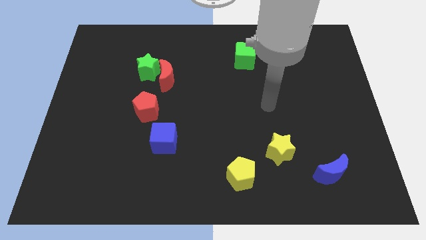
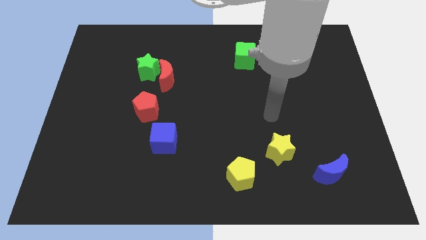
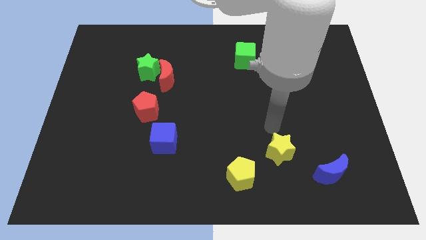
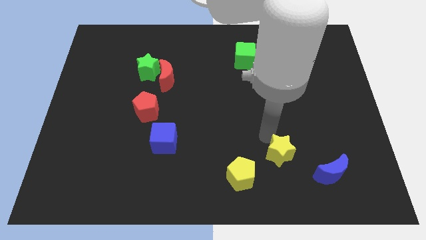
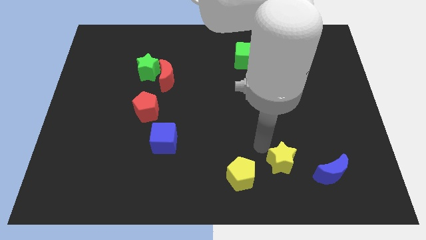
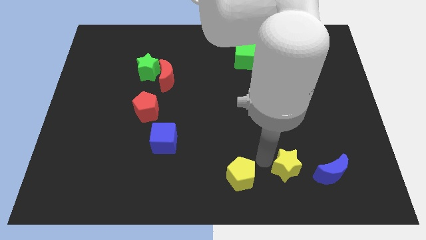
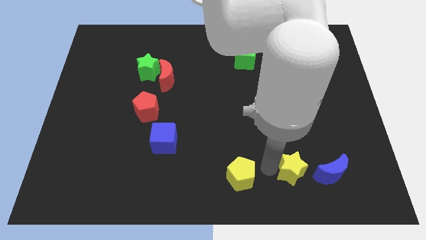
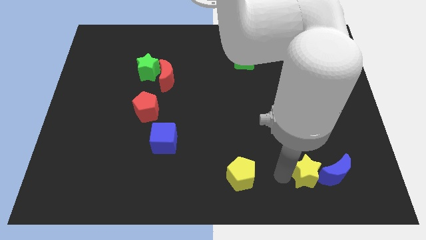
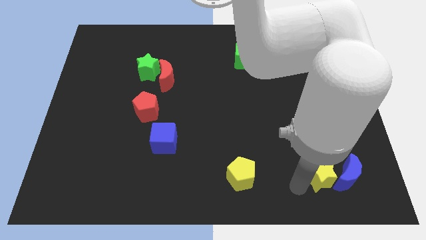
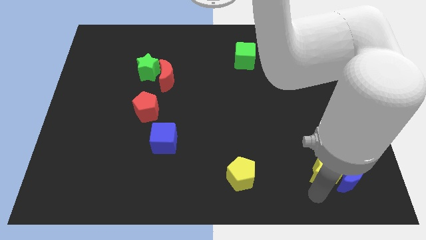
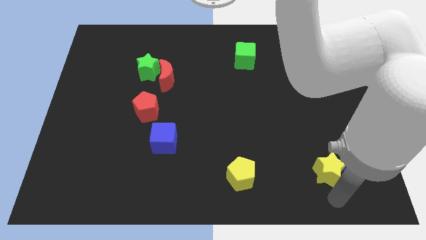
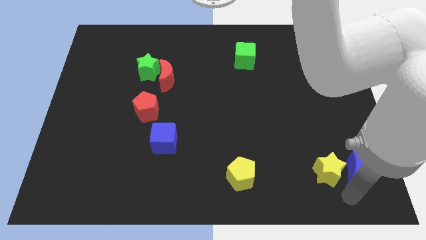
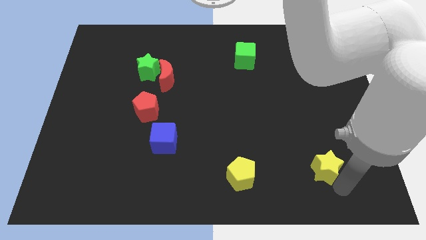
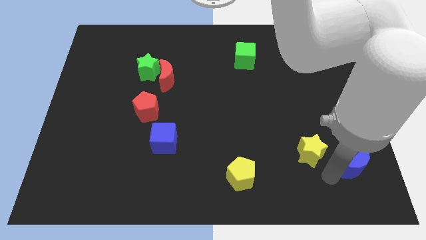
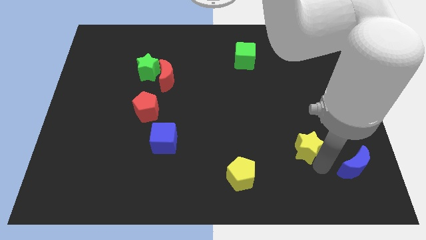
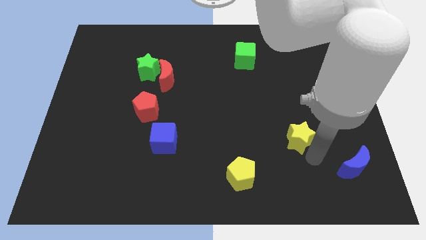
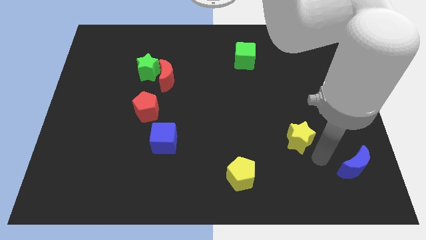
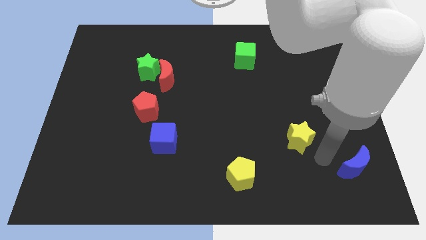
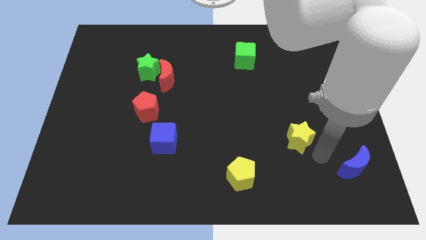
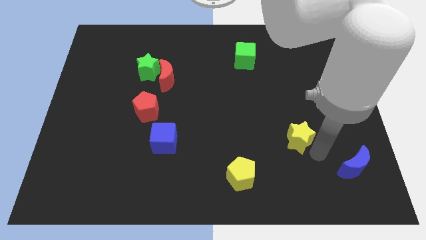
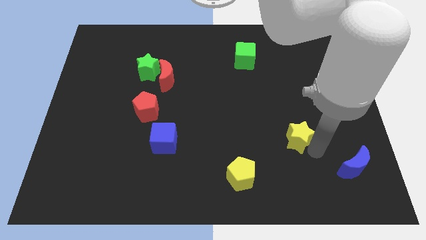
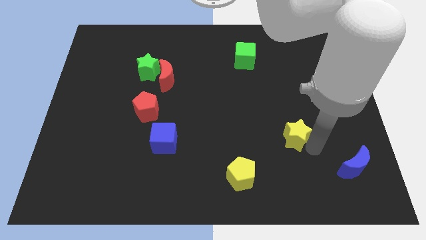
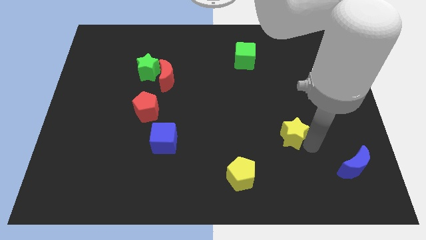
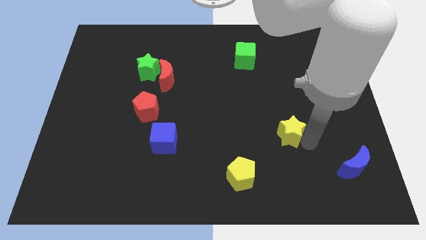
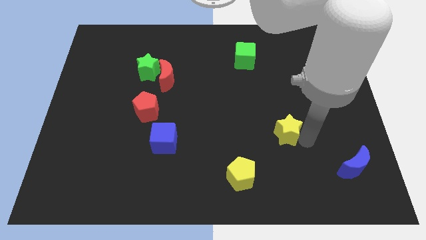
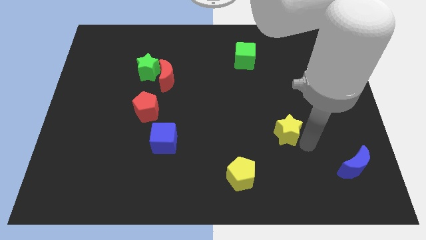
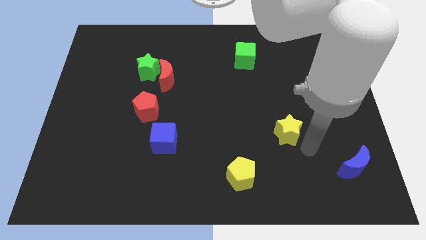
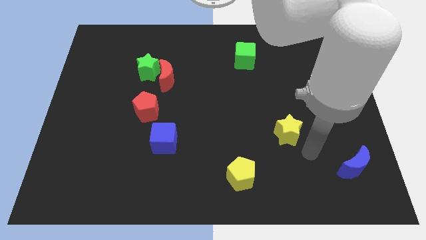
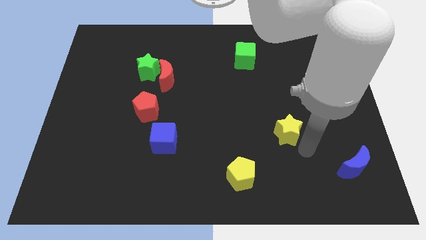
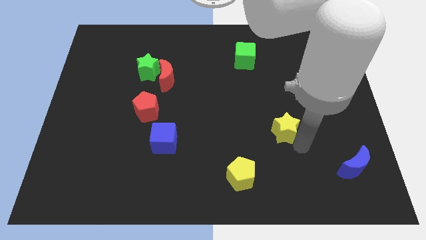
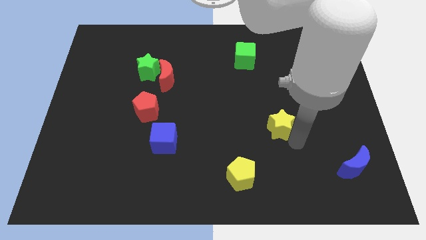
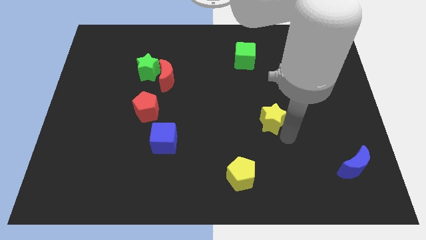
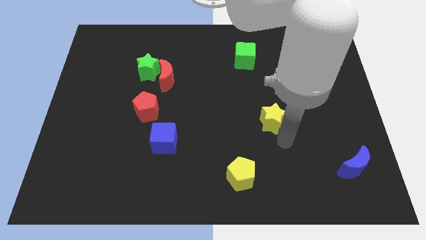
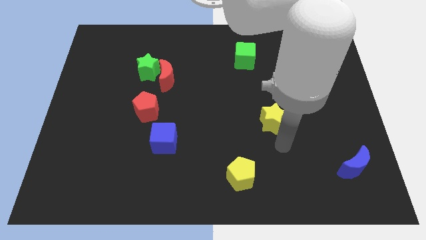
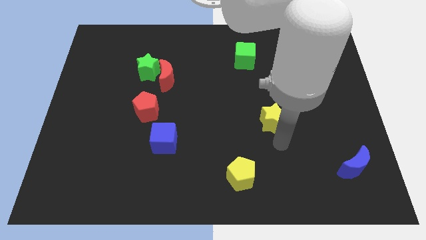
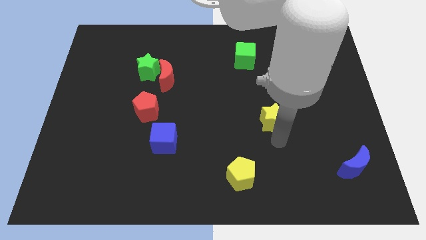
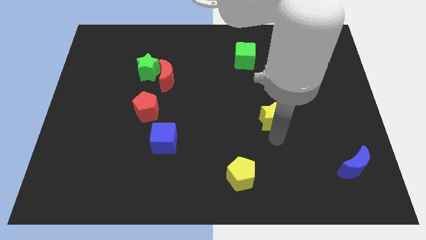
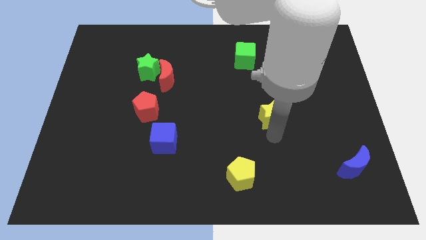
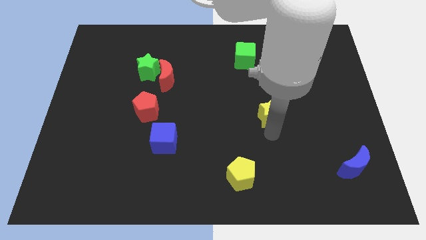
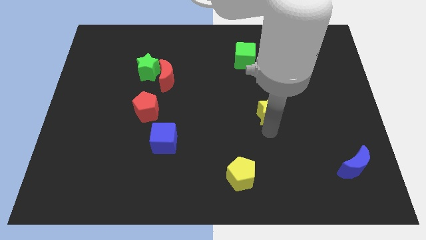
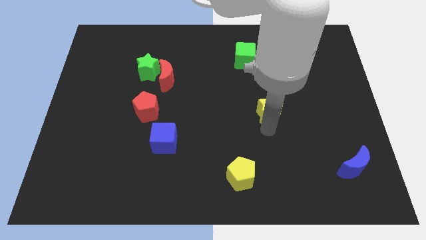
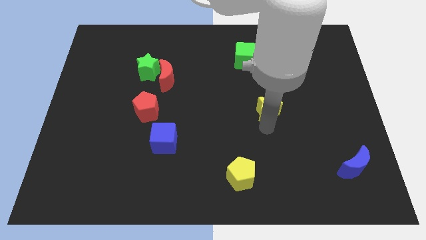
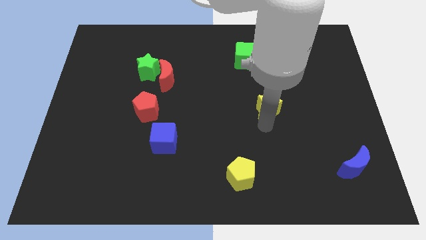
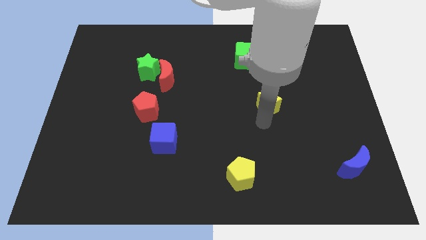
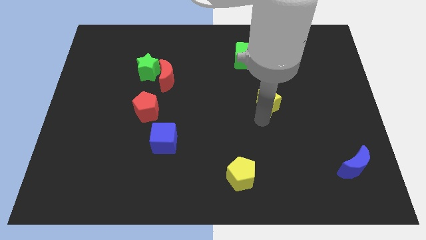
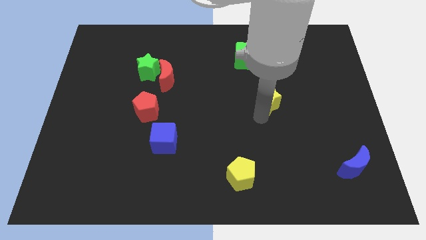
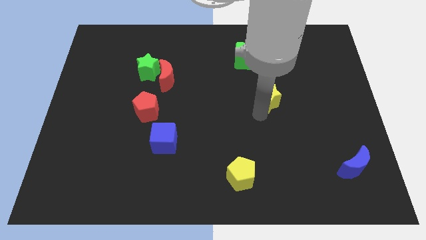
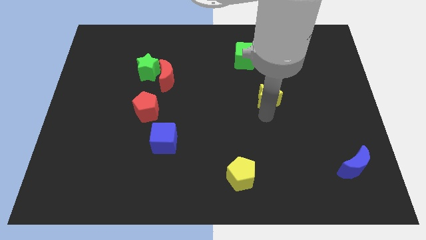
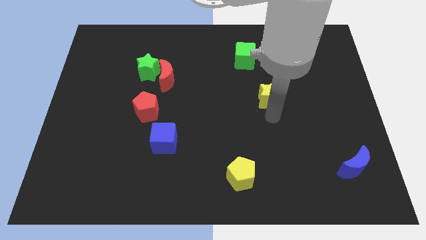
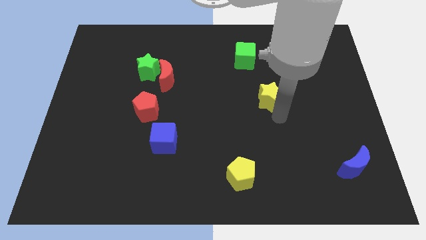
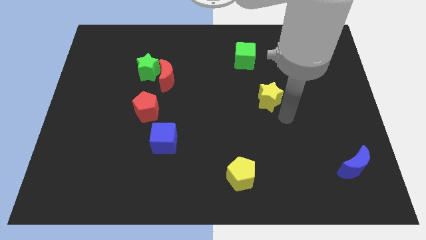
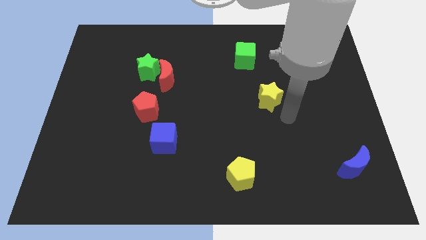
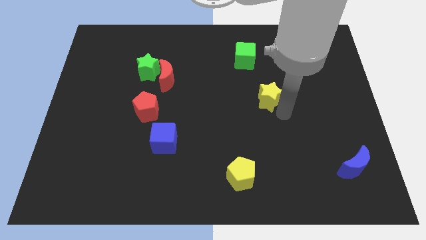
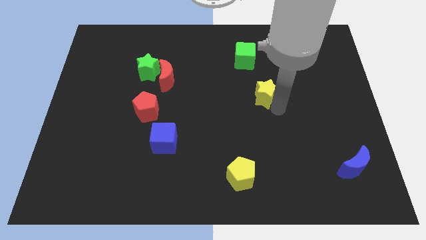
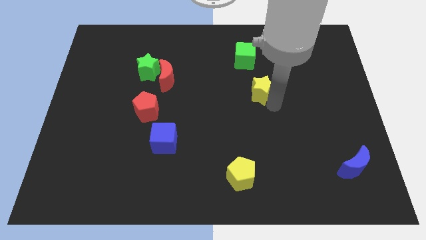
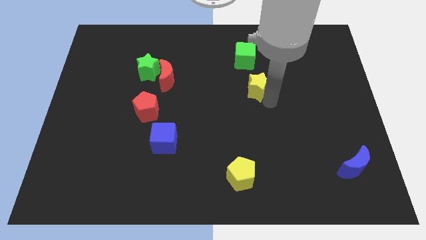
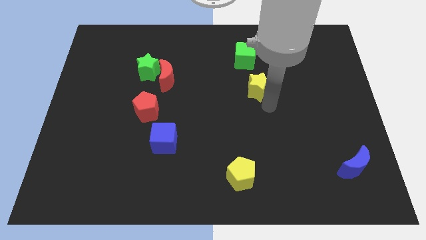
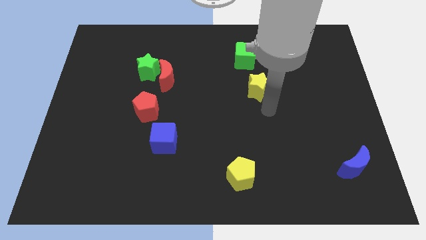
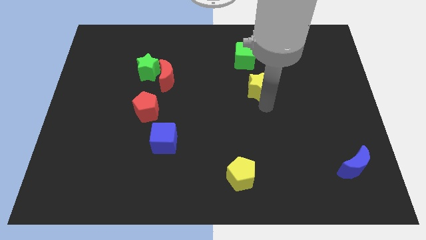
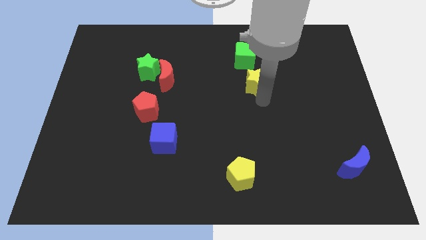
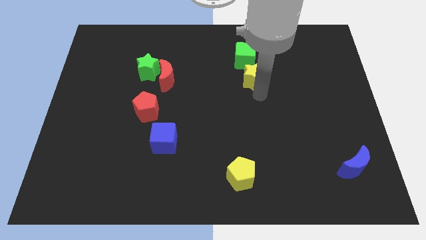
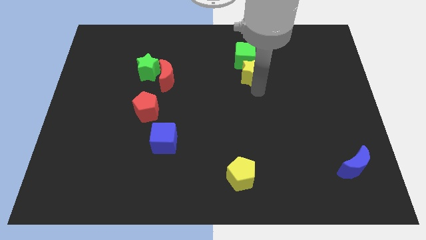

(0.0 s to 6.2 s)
move the yellow star towards the green cube

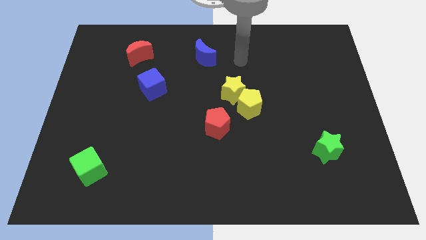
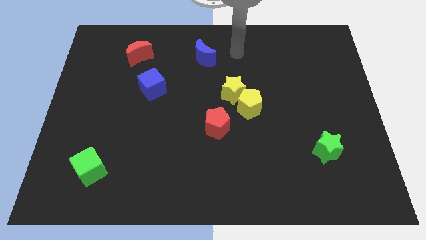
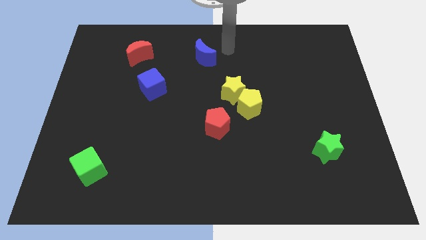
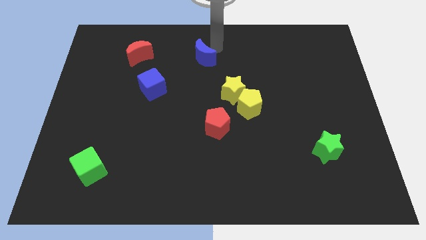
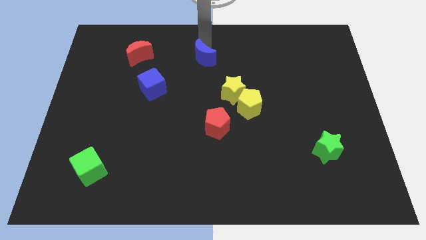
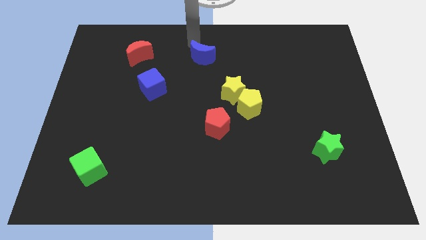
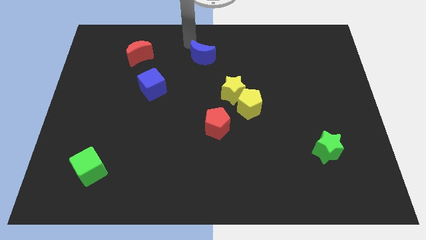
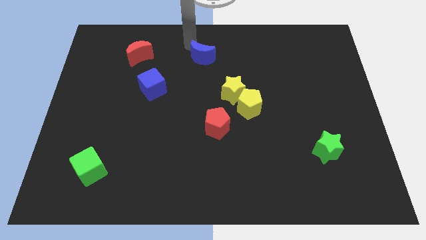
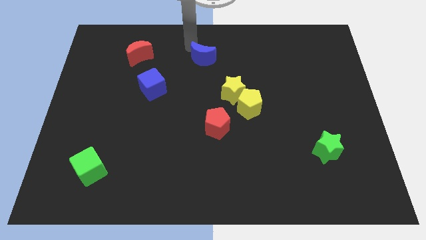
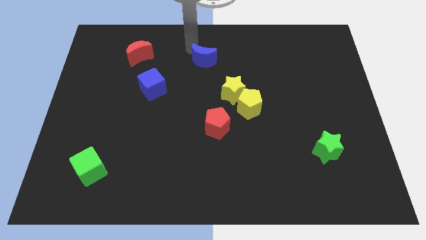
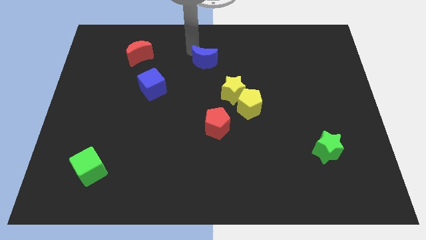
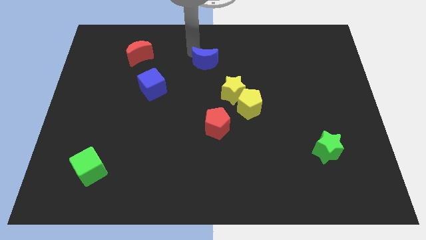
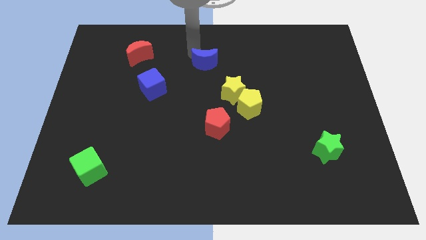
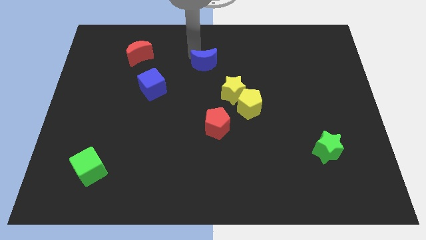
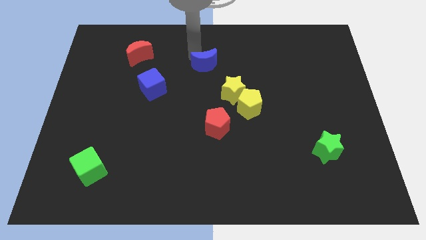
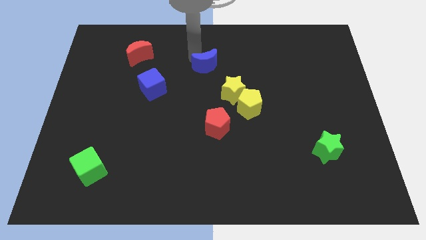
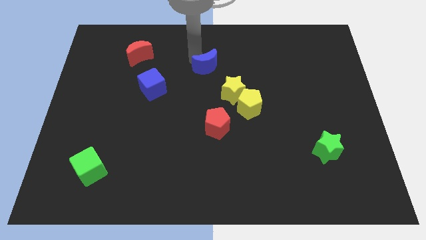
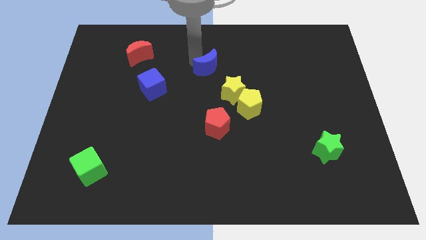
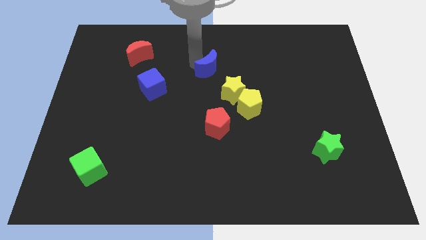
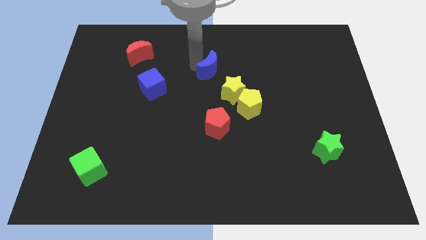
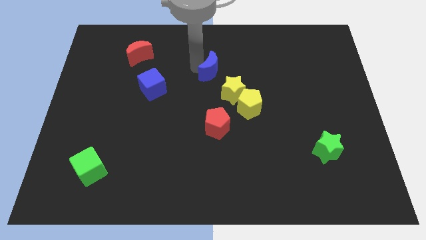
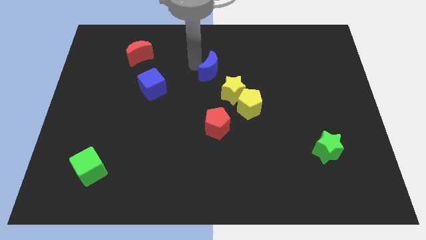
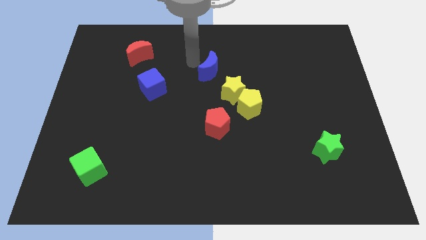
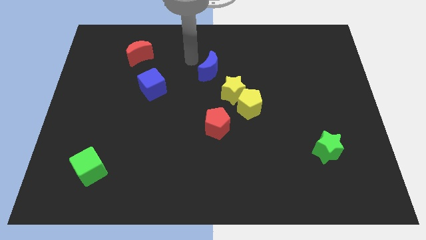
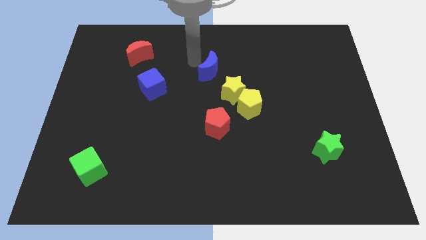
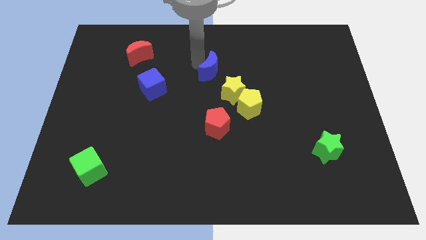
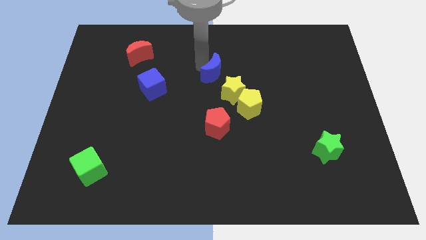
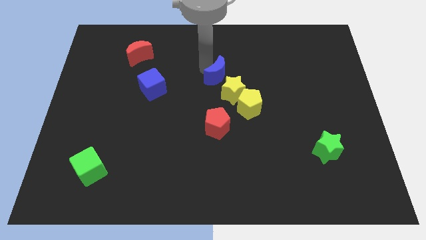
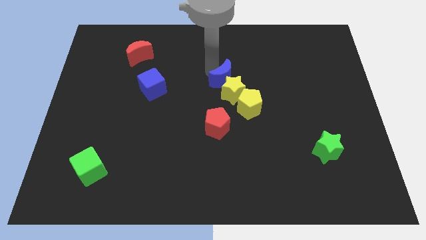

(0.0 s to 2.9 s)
move the blue moon next to the yellow star
